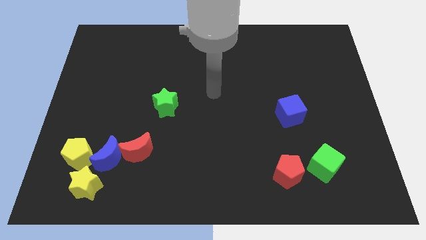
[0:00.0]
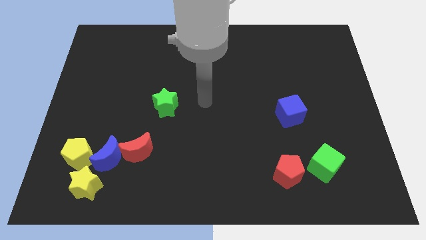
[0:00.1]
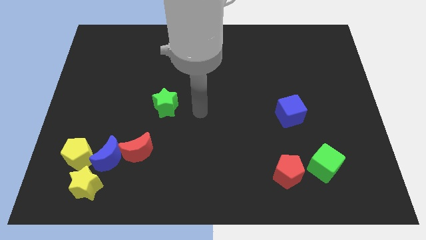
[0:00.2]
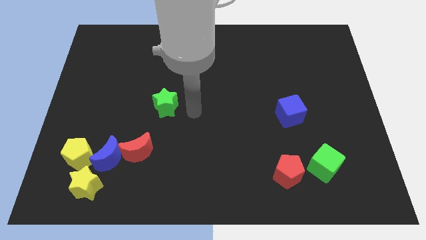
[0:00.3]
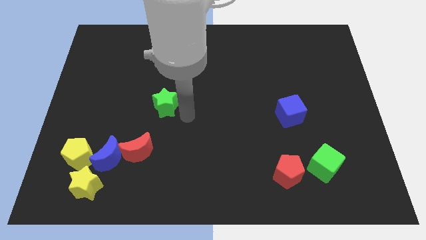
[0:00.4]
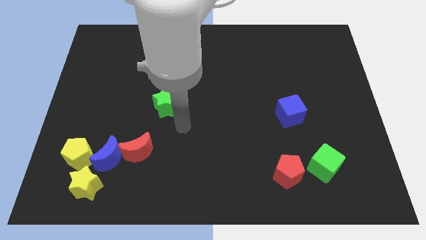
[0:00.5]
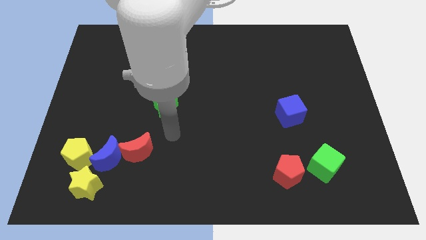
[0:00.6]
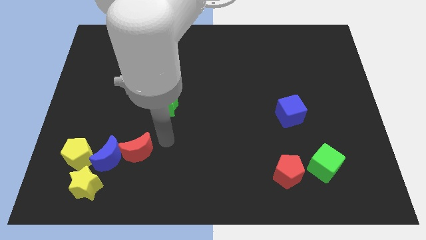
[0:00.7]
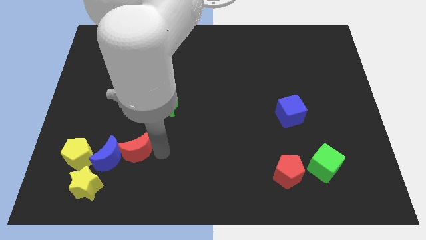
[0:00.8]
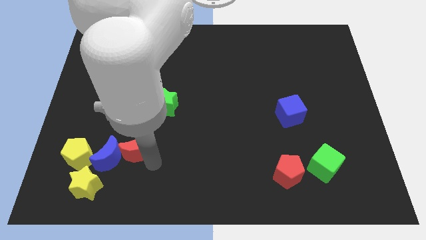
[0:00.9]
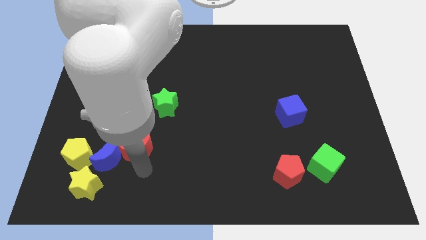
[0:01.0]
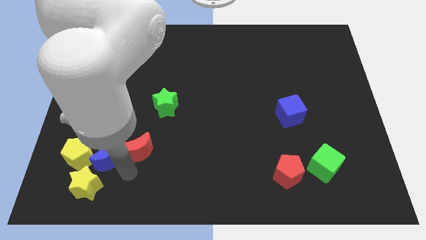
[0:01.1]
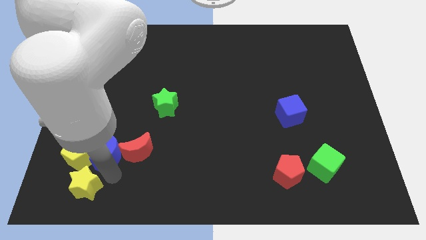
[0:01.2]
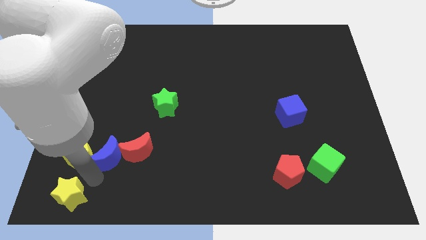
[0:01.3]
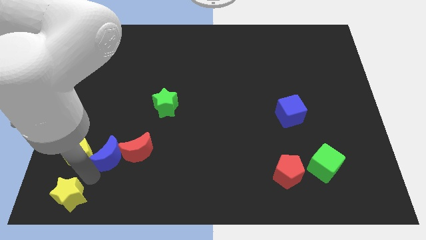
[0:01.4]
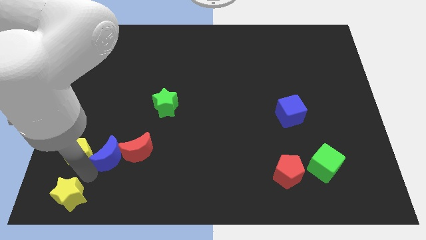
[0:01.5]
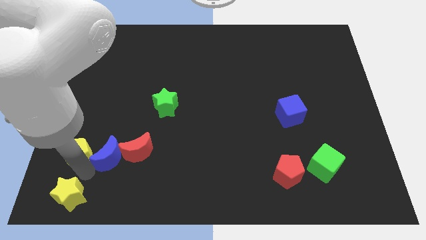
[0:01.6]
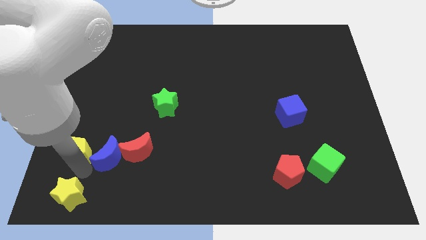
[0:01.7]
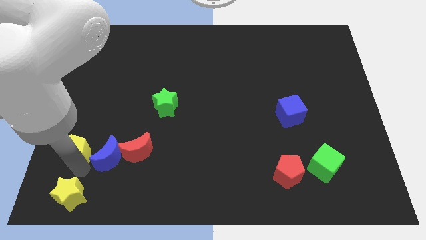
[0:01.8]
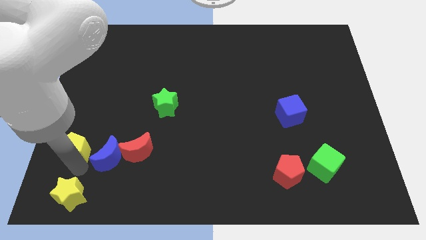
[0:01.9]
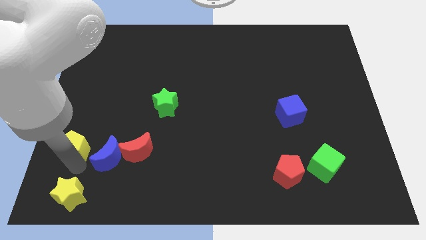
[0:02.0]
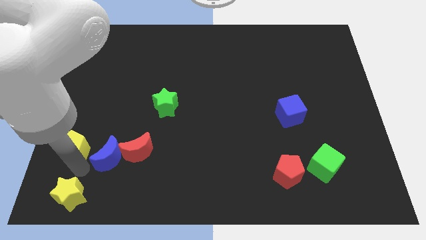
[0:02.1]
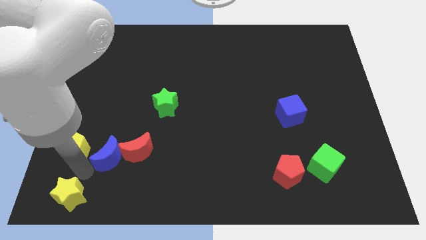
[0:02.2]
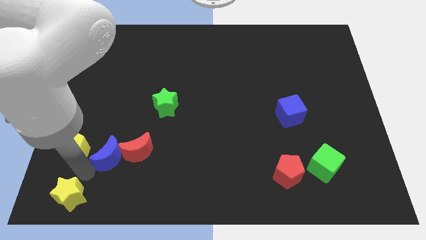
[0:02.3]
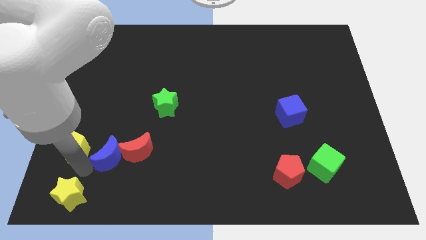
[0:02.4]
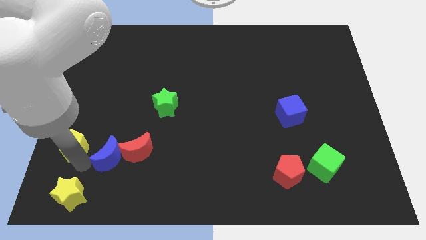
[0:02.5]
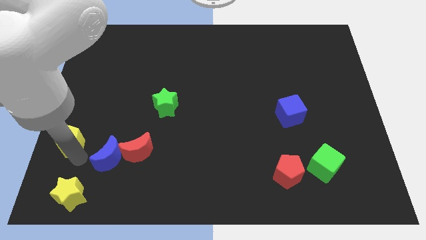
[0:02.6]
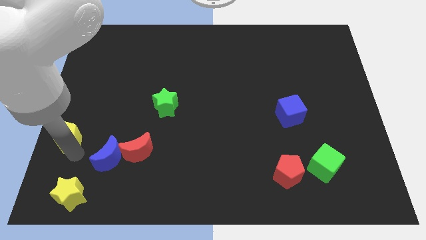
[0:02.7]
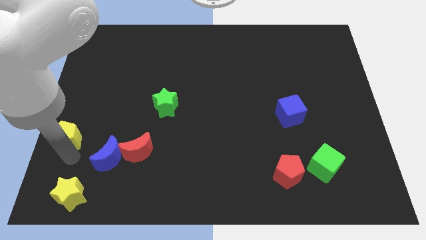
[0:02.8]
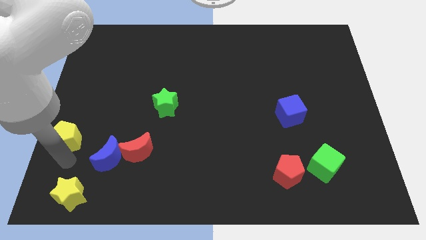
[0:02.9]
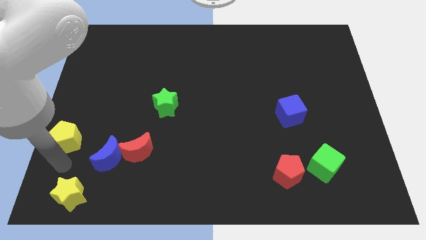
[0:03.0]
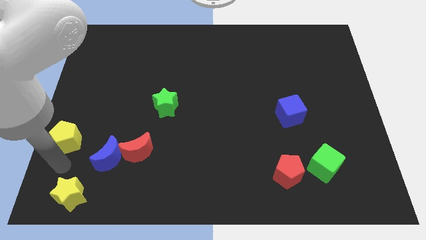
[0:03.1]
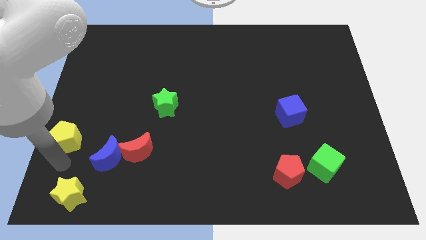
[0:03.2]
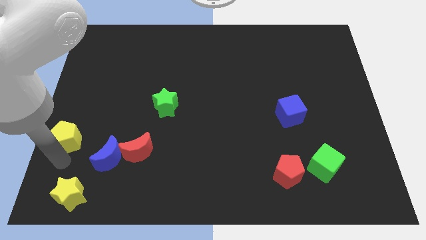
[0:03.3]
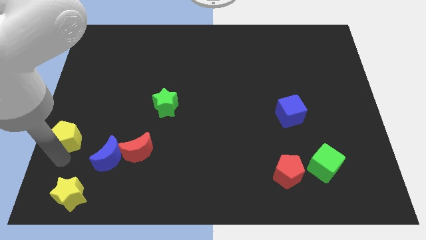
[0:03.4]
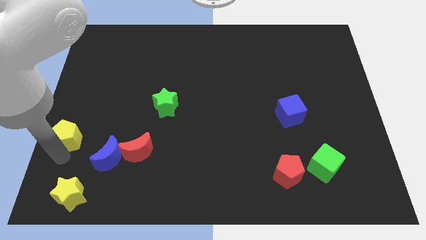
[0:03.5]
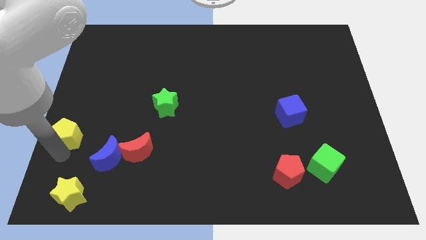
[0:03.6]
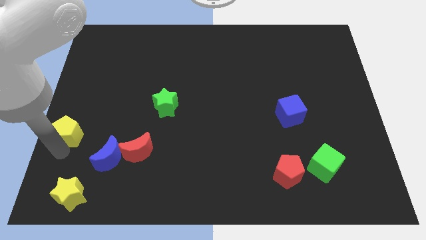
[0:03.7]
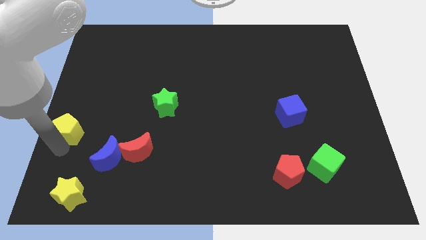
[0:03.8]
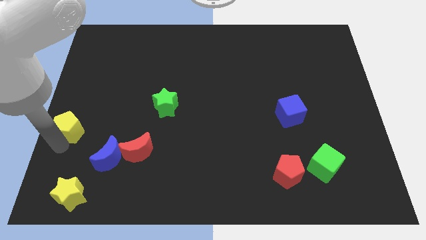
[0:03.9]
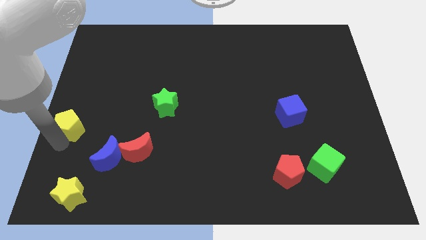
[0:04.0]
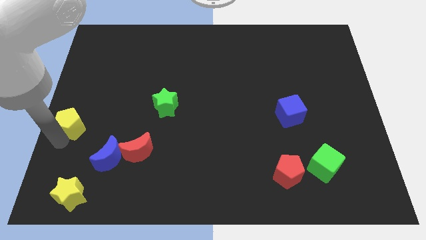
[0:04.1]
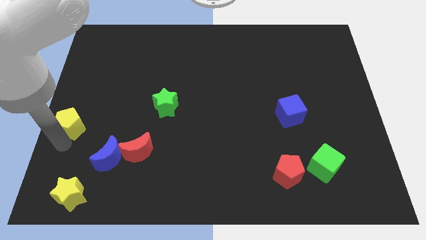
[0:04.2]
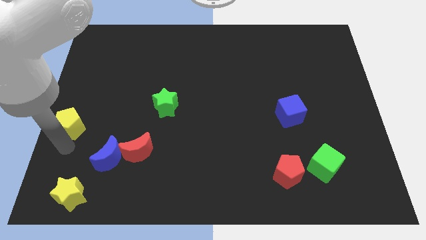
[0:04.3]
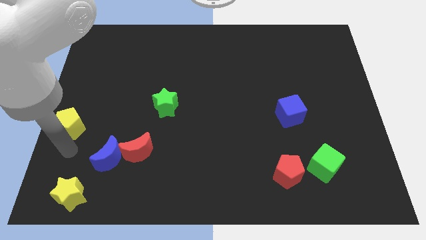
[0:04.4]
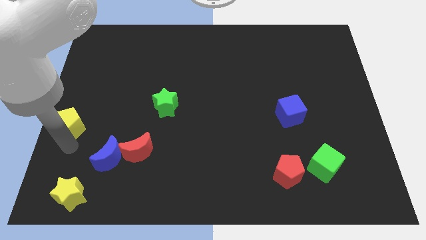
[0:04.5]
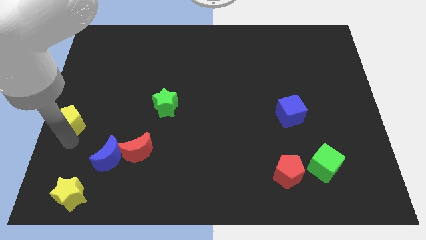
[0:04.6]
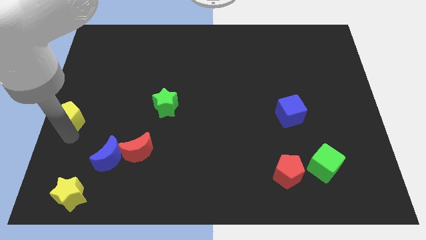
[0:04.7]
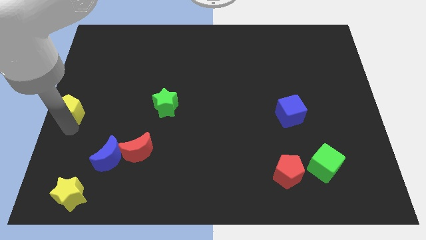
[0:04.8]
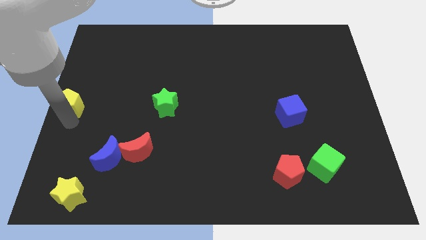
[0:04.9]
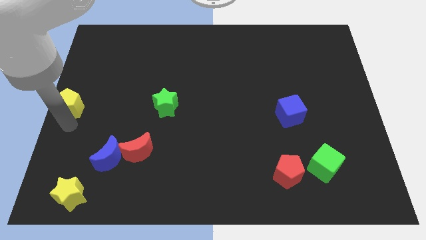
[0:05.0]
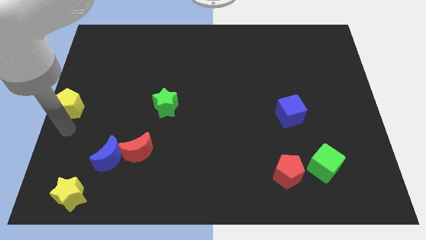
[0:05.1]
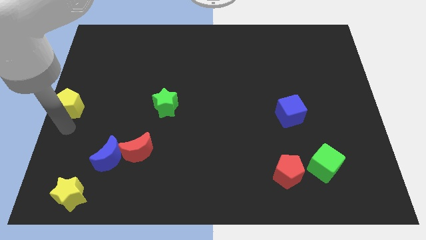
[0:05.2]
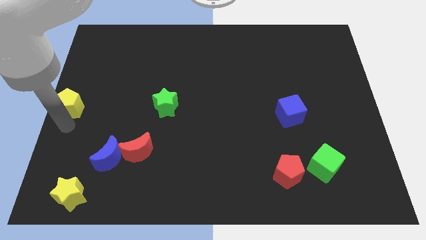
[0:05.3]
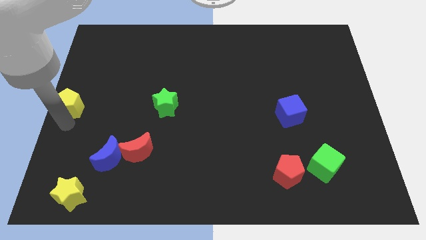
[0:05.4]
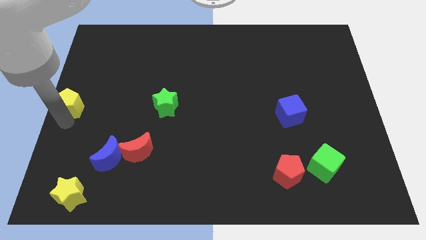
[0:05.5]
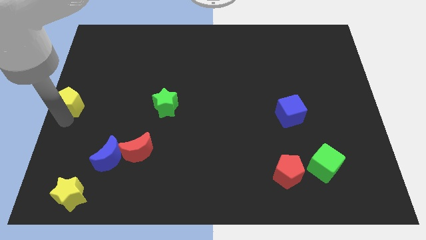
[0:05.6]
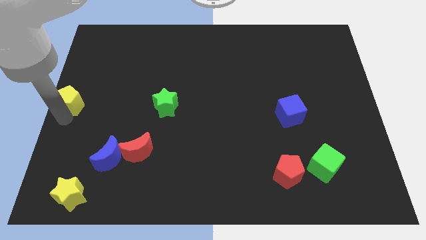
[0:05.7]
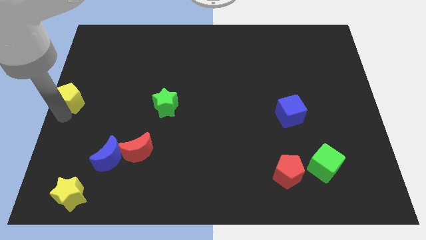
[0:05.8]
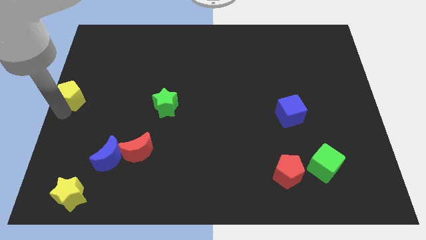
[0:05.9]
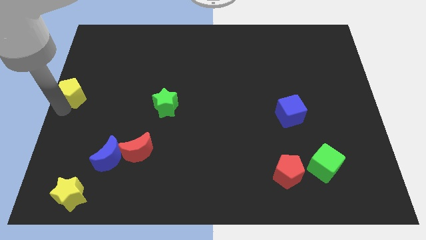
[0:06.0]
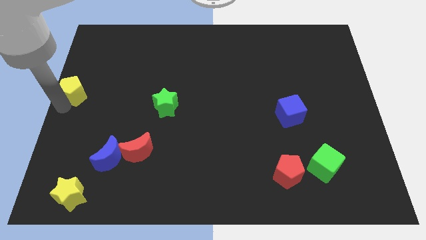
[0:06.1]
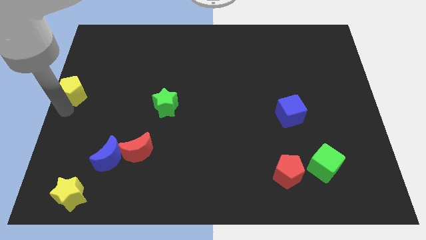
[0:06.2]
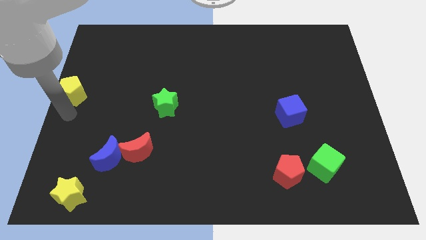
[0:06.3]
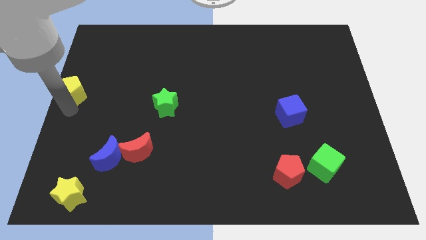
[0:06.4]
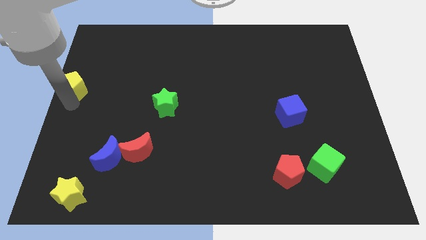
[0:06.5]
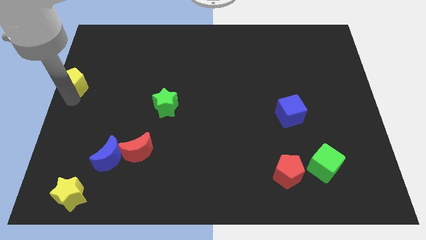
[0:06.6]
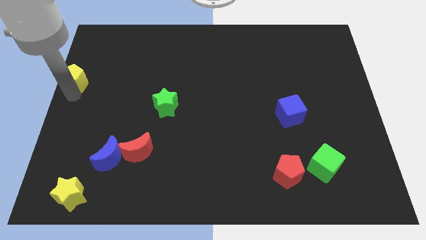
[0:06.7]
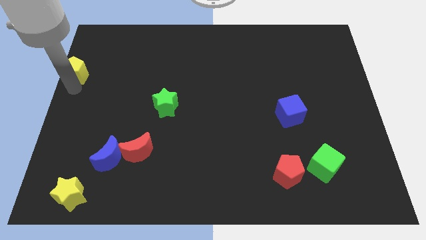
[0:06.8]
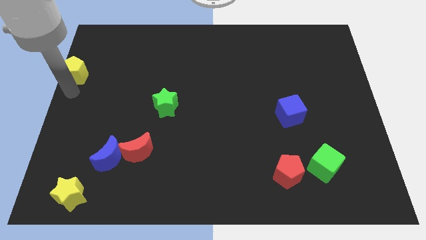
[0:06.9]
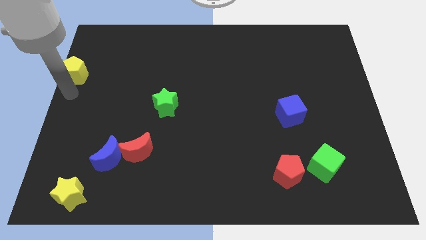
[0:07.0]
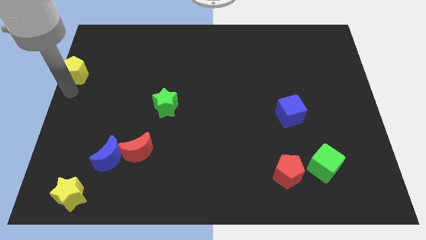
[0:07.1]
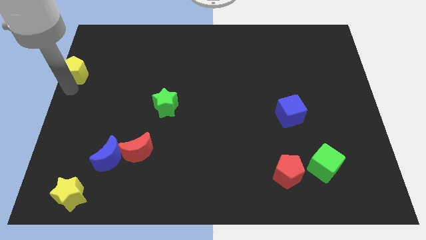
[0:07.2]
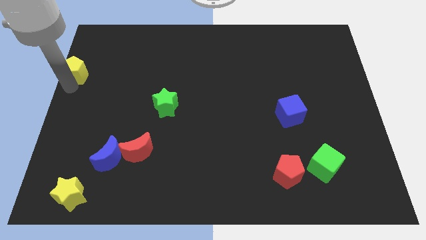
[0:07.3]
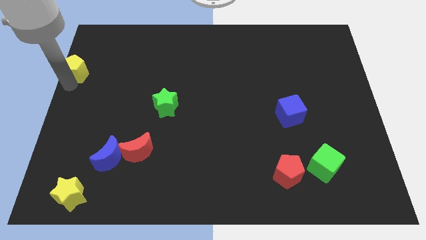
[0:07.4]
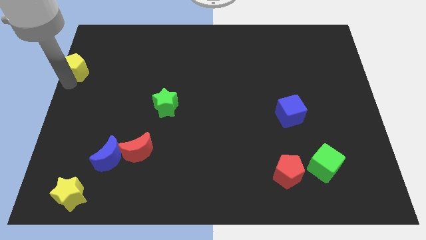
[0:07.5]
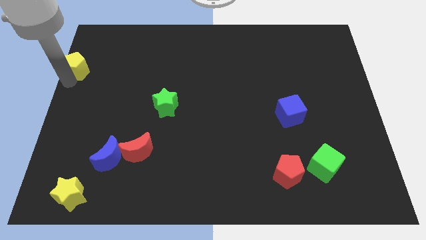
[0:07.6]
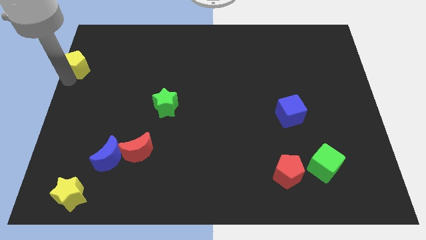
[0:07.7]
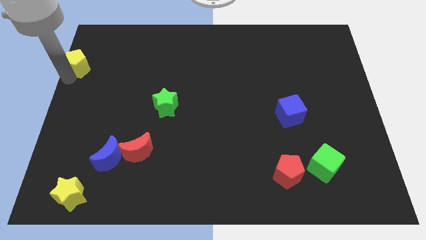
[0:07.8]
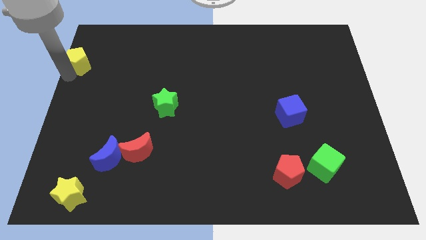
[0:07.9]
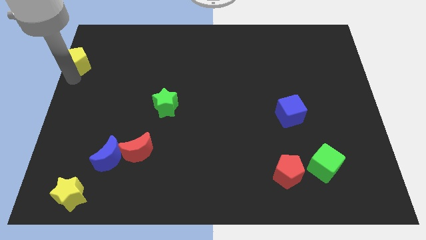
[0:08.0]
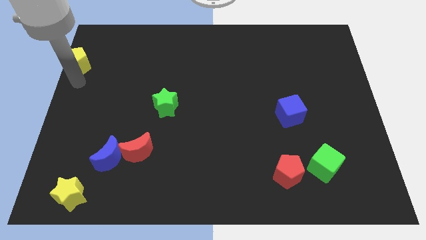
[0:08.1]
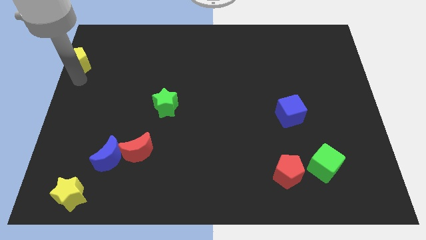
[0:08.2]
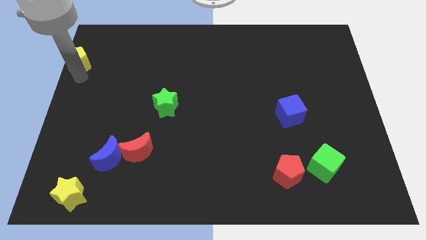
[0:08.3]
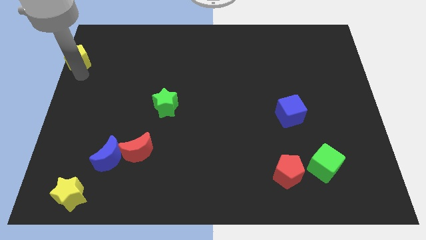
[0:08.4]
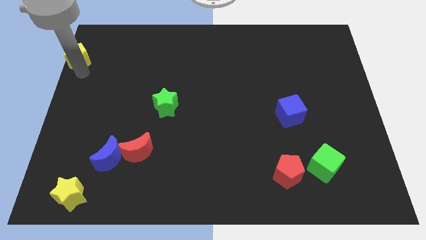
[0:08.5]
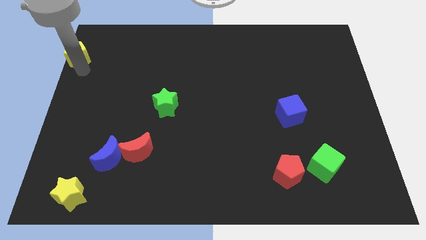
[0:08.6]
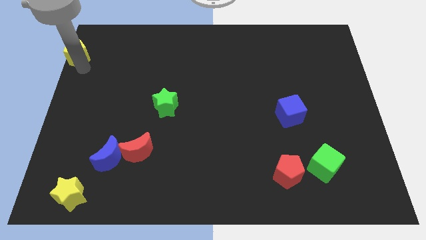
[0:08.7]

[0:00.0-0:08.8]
put the yellow pentagon to the top left of the board
